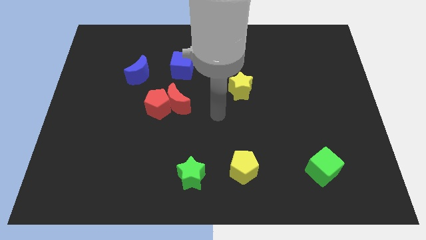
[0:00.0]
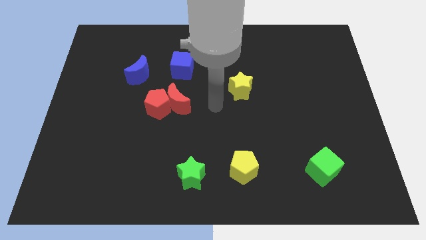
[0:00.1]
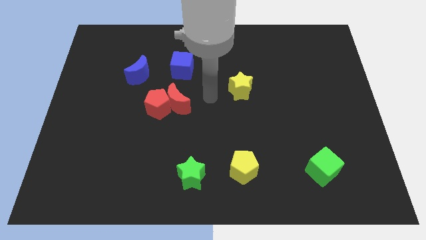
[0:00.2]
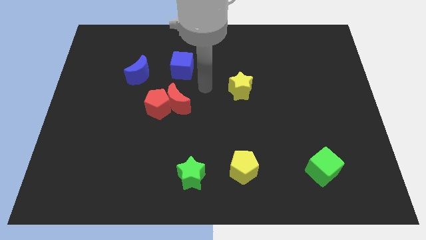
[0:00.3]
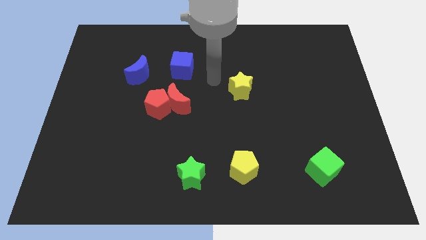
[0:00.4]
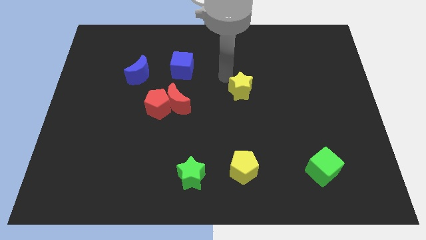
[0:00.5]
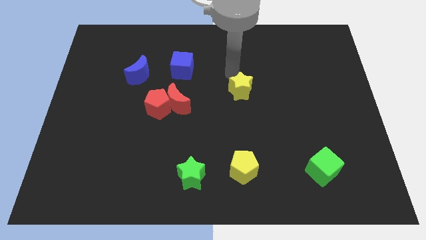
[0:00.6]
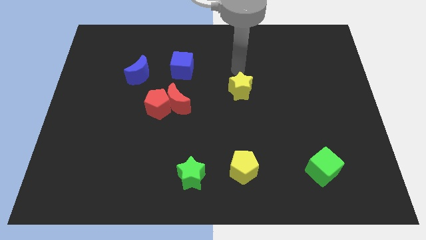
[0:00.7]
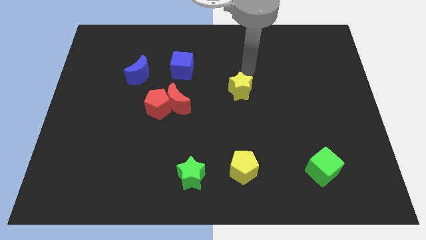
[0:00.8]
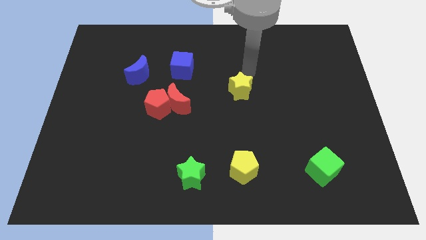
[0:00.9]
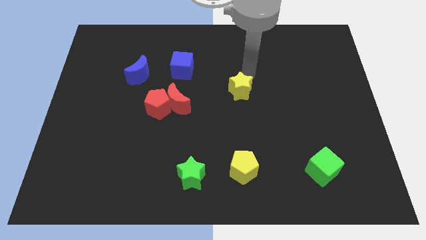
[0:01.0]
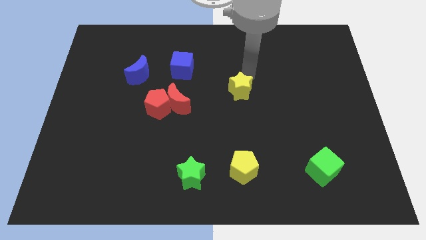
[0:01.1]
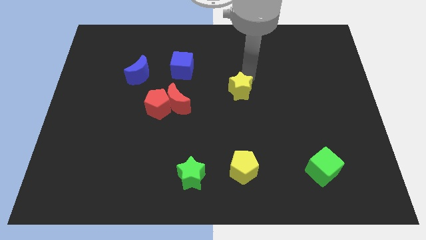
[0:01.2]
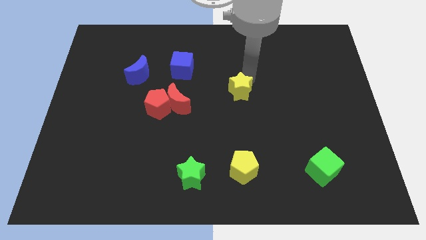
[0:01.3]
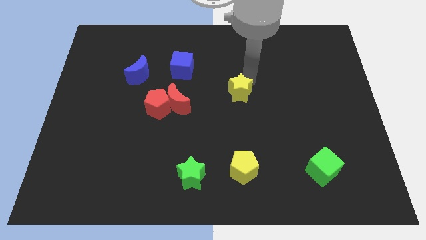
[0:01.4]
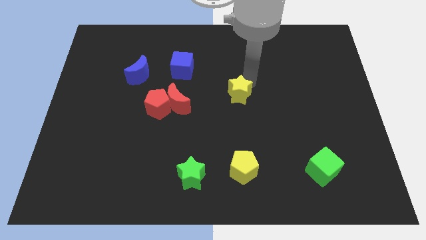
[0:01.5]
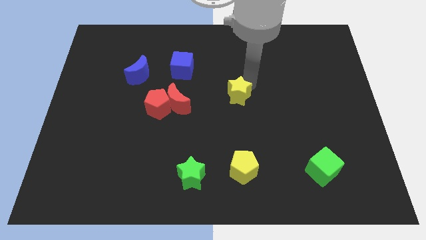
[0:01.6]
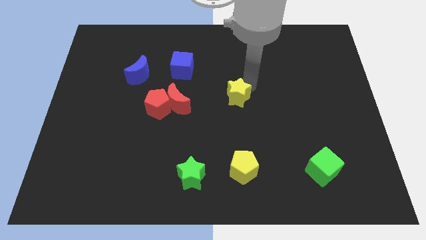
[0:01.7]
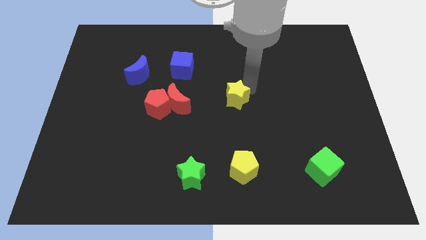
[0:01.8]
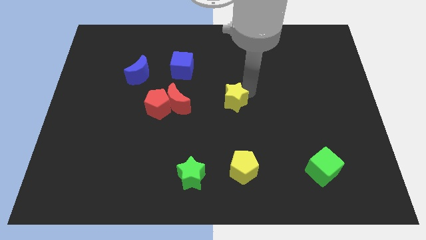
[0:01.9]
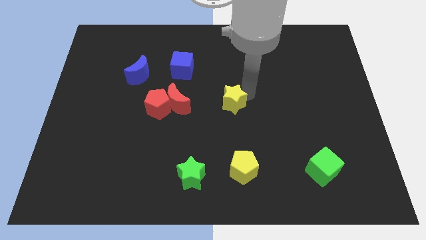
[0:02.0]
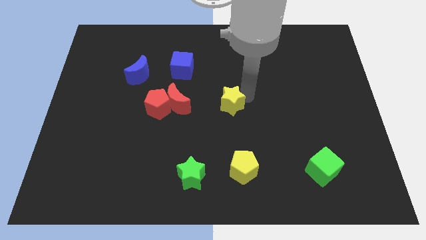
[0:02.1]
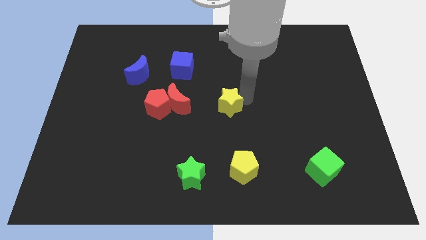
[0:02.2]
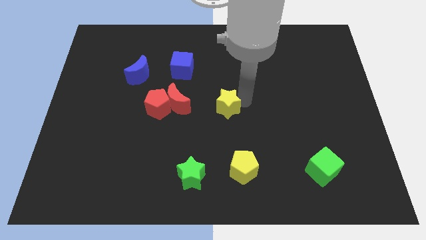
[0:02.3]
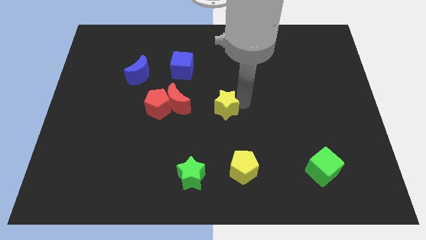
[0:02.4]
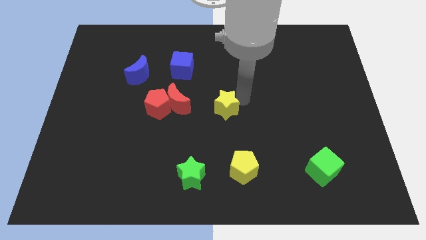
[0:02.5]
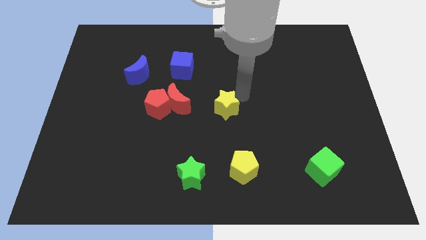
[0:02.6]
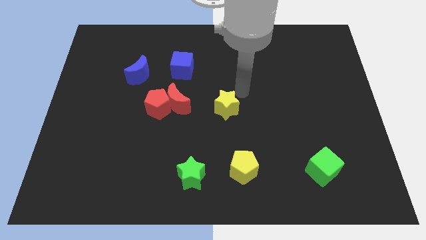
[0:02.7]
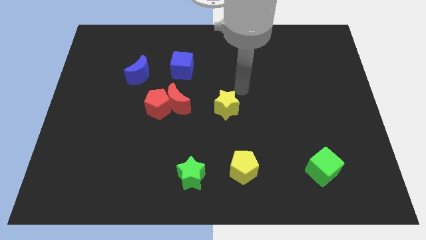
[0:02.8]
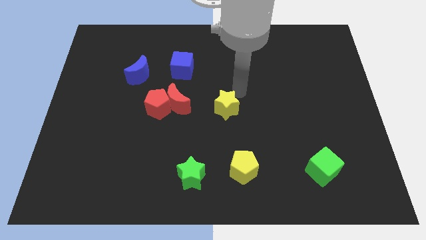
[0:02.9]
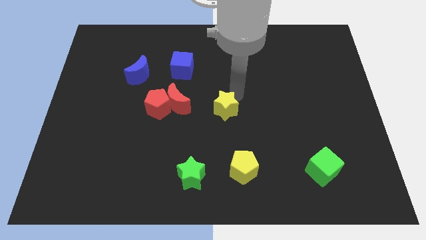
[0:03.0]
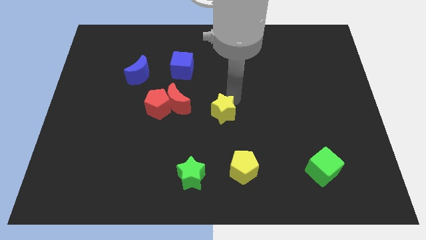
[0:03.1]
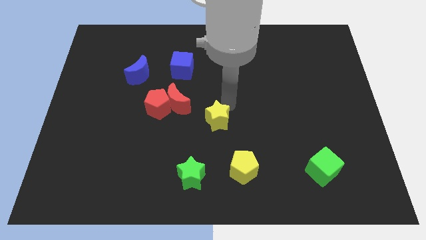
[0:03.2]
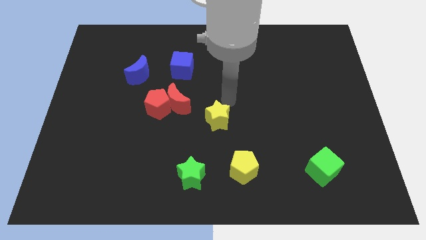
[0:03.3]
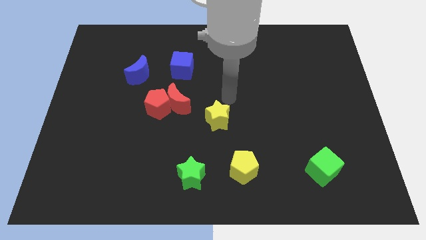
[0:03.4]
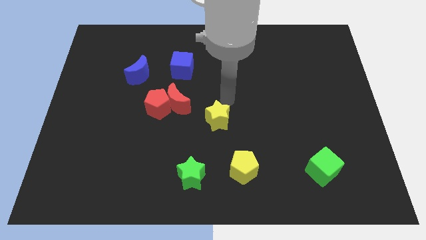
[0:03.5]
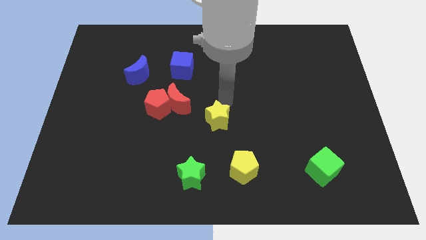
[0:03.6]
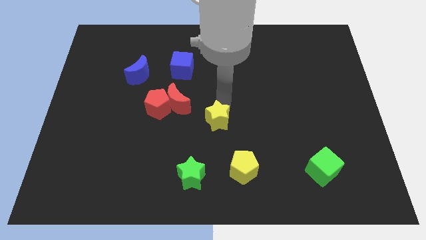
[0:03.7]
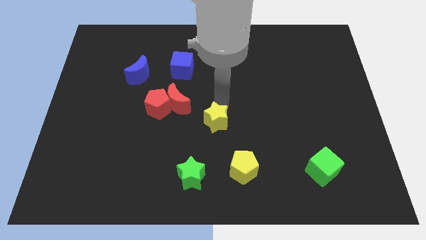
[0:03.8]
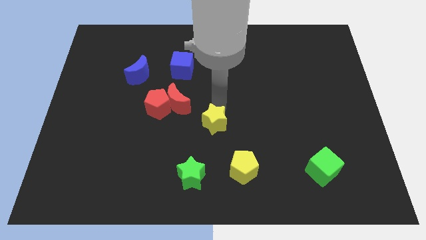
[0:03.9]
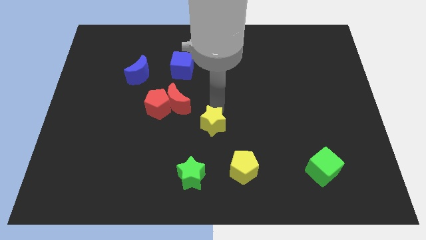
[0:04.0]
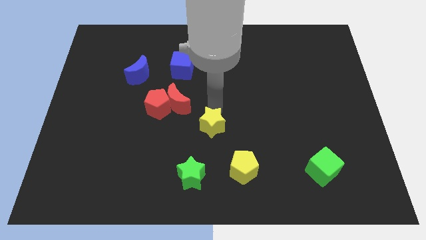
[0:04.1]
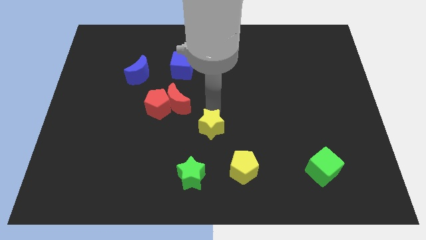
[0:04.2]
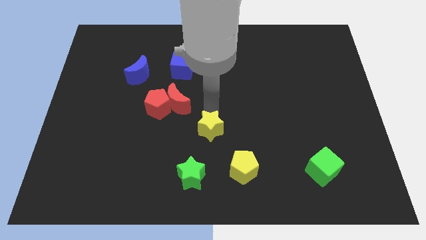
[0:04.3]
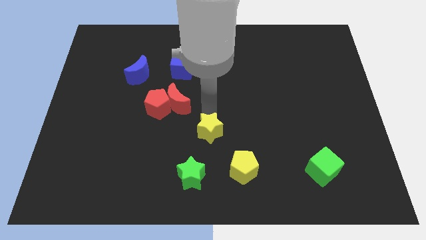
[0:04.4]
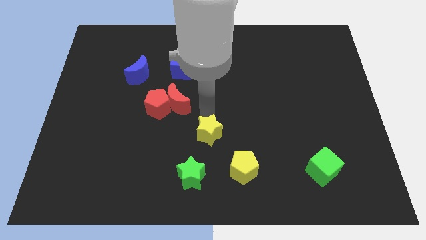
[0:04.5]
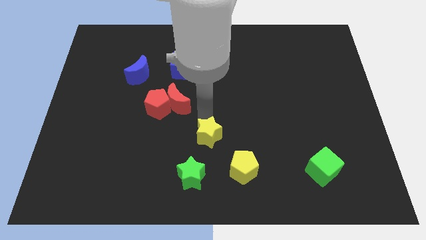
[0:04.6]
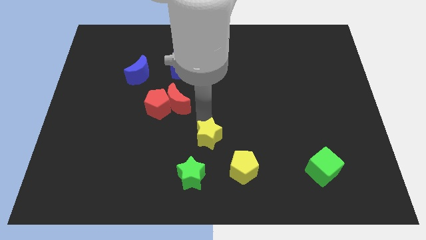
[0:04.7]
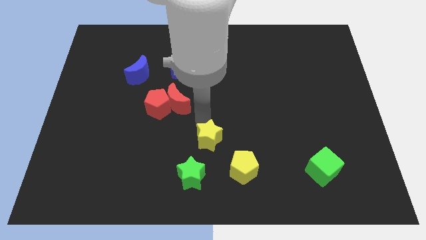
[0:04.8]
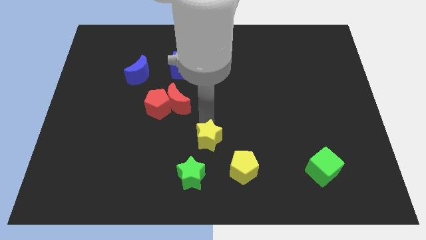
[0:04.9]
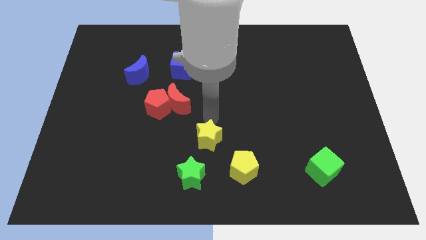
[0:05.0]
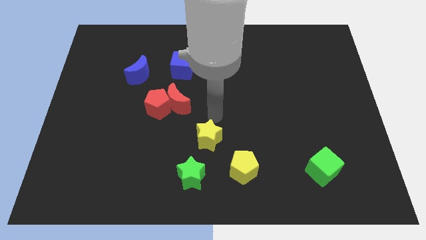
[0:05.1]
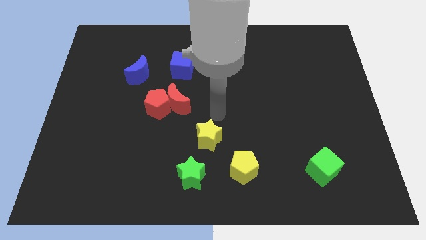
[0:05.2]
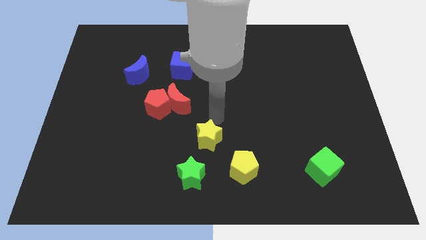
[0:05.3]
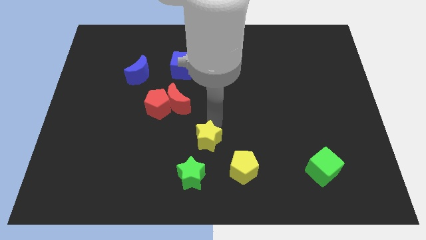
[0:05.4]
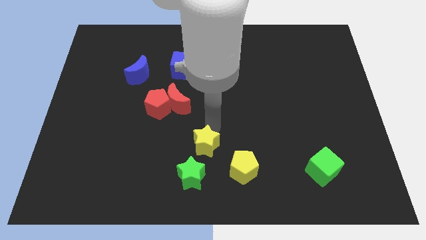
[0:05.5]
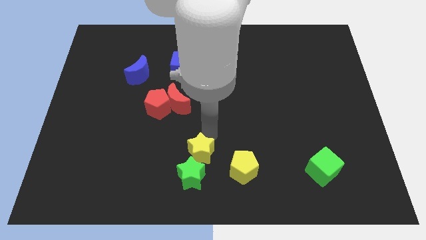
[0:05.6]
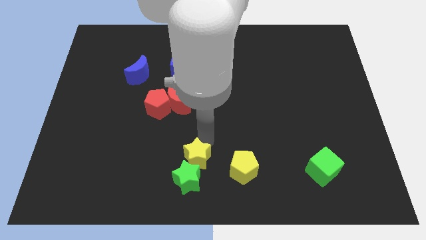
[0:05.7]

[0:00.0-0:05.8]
put the yellow star to the green star
